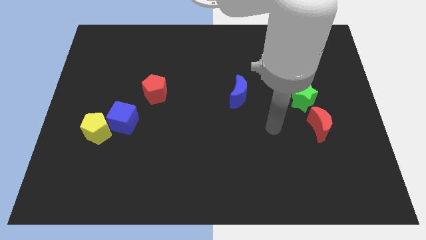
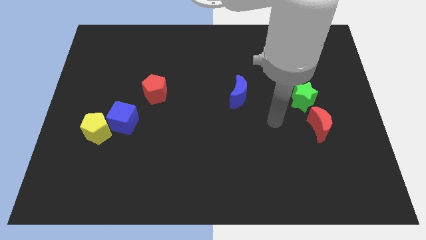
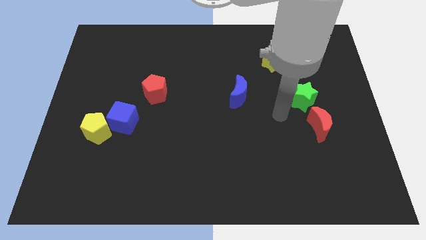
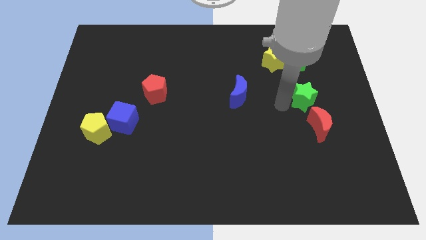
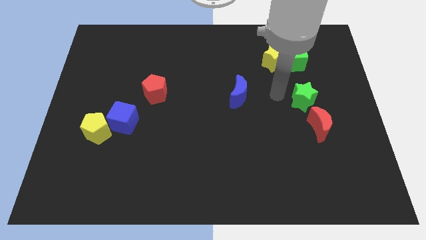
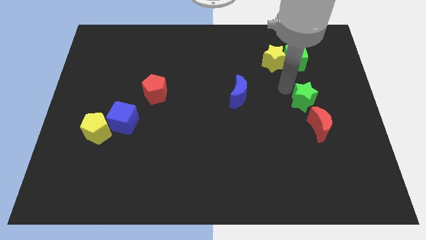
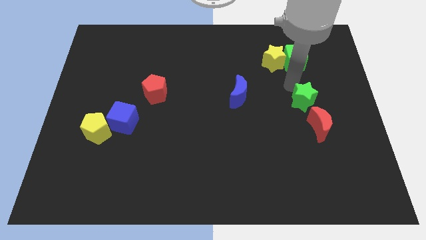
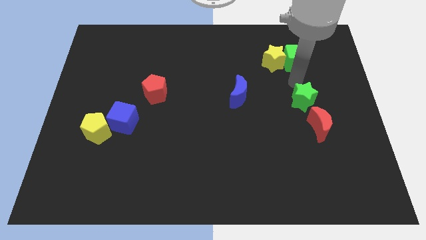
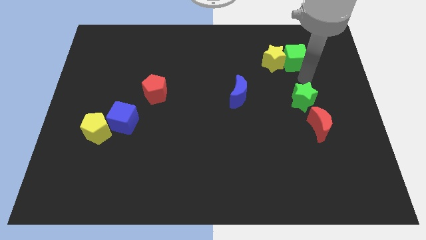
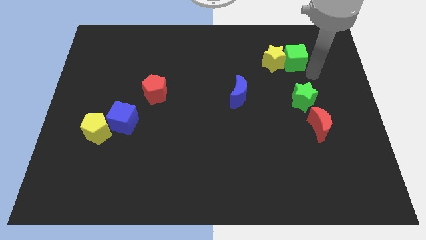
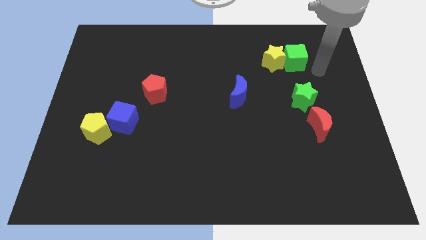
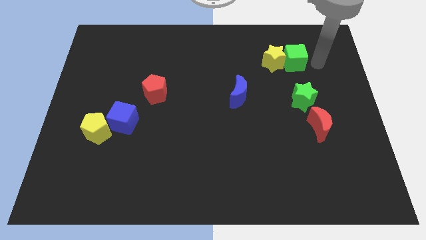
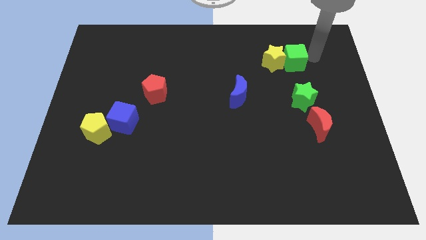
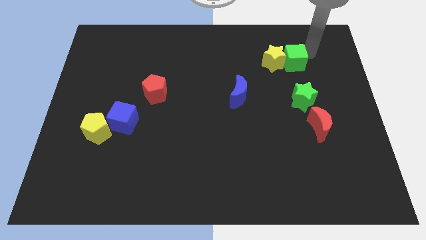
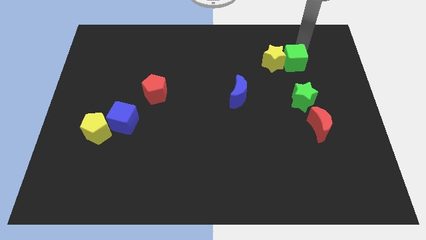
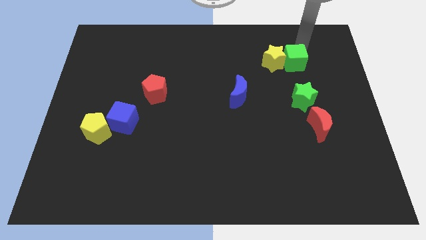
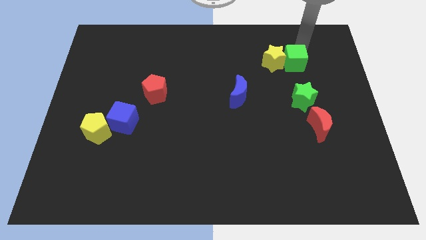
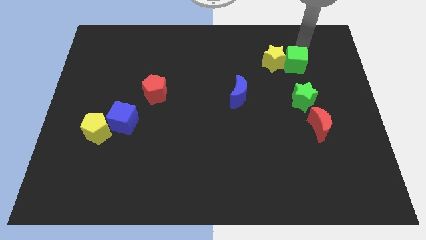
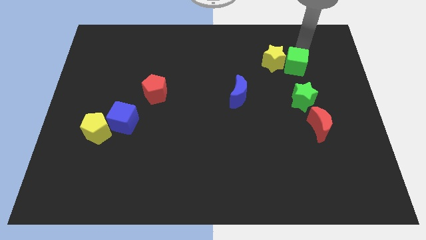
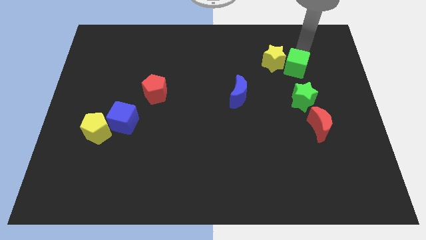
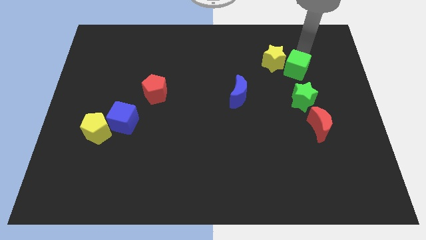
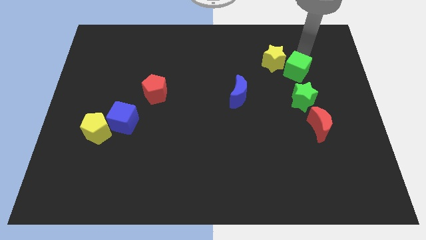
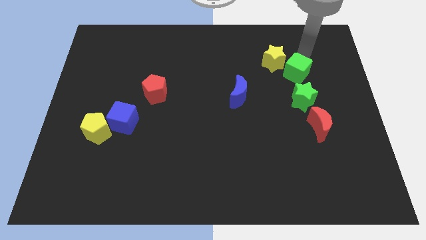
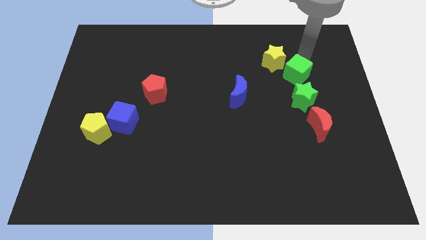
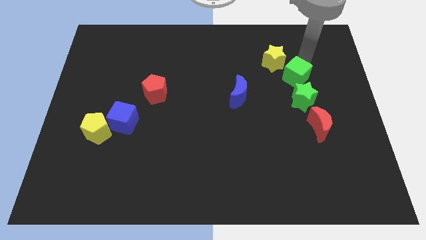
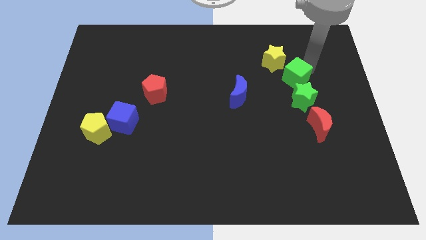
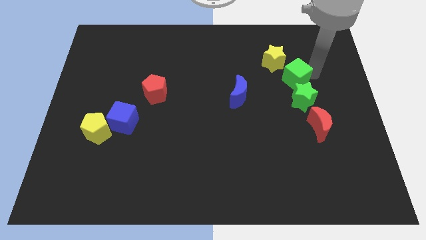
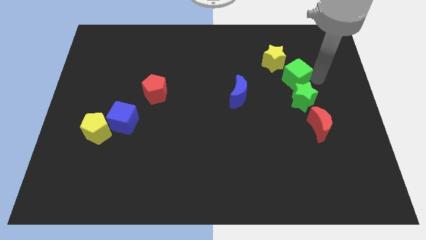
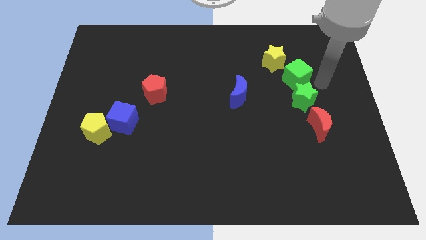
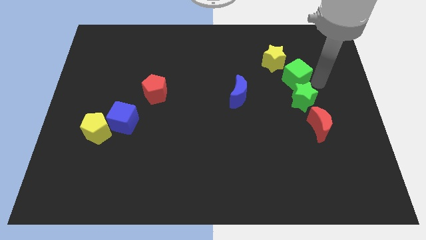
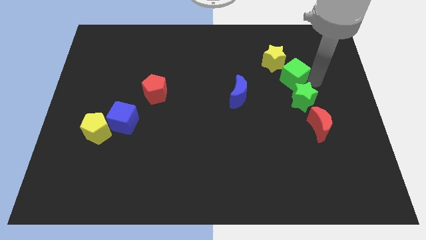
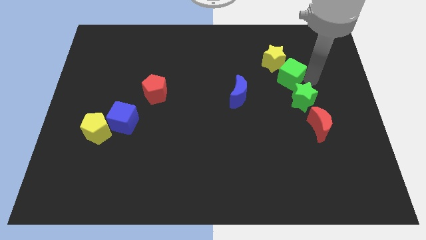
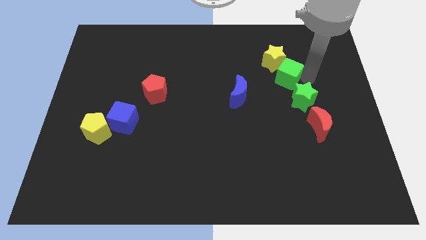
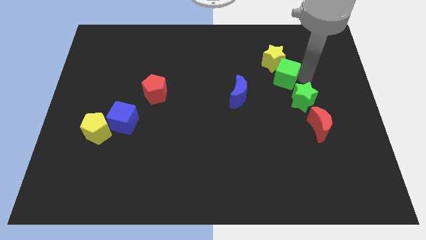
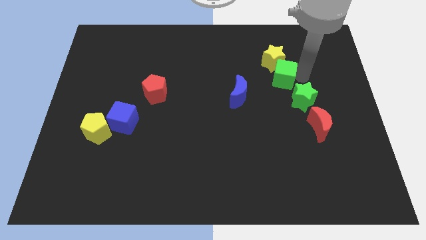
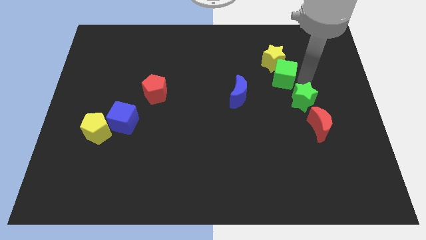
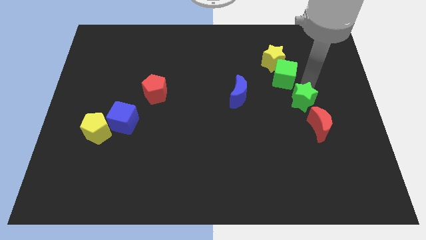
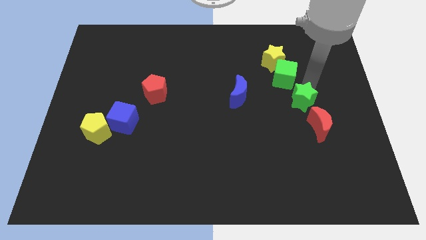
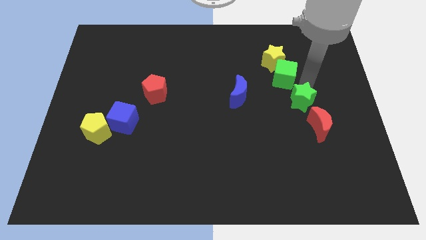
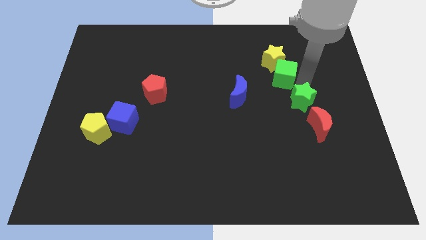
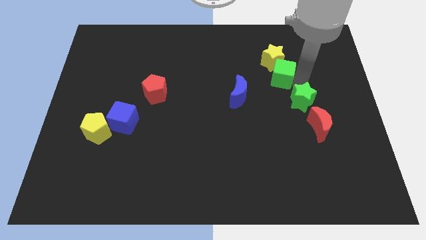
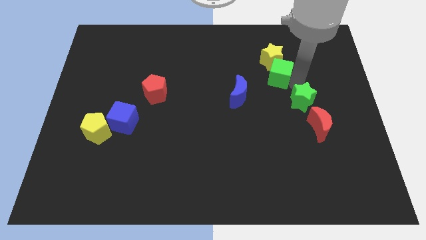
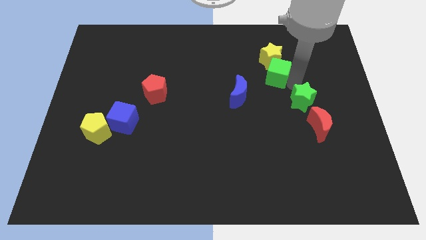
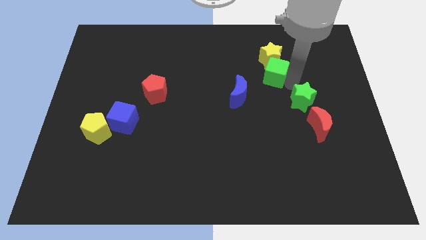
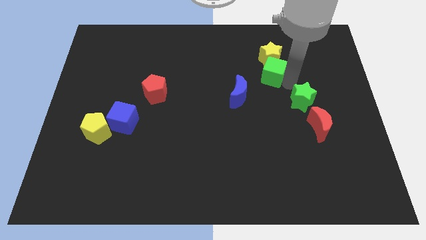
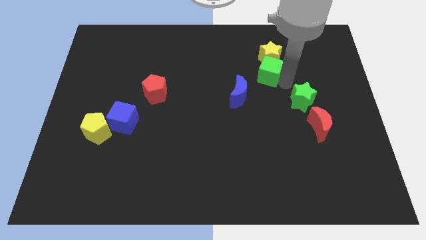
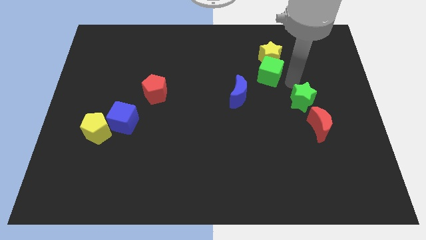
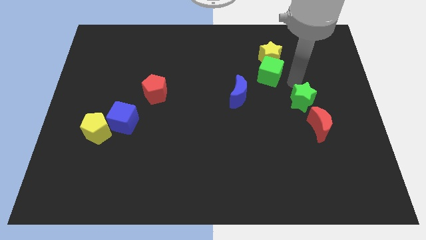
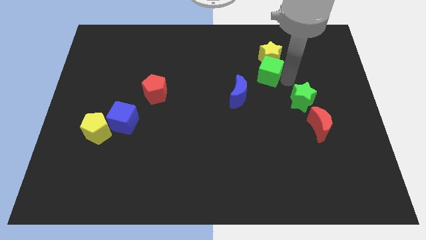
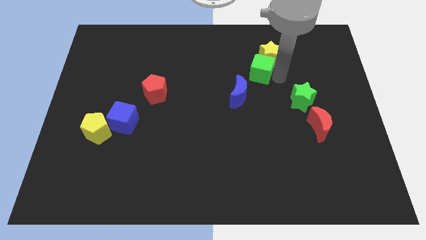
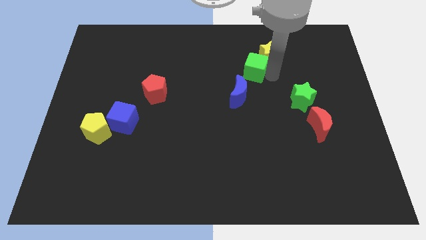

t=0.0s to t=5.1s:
put the green cube above the blue moon

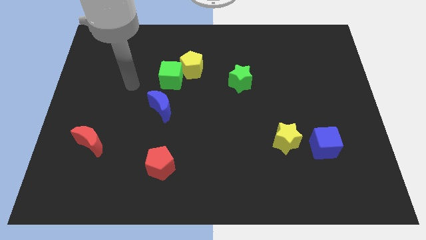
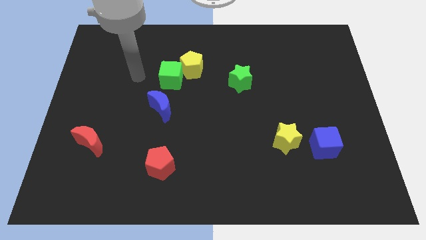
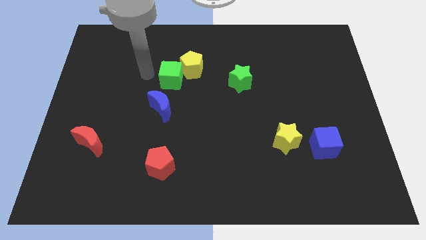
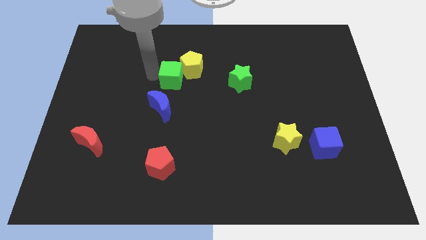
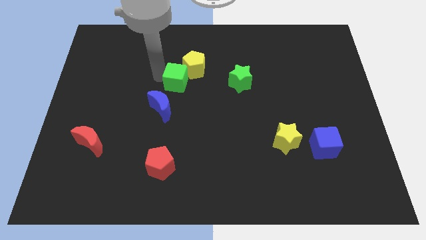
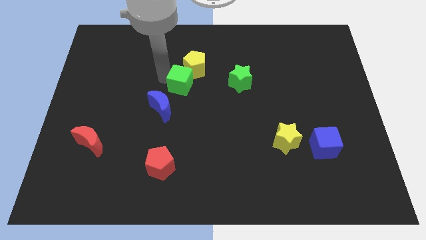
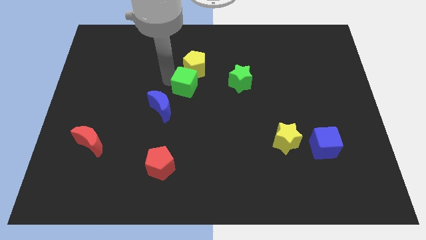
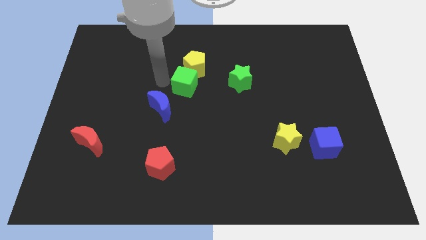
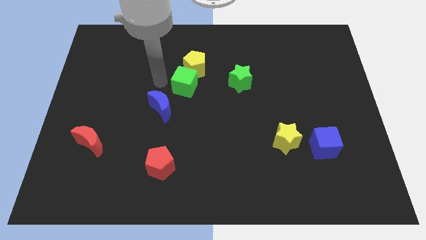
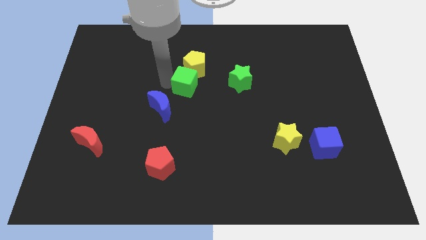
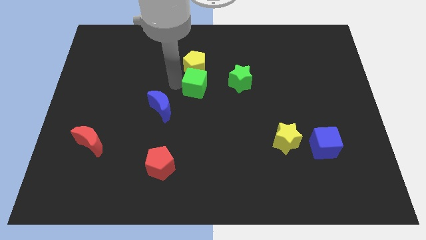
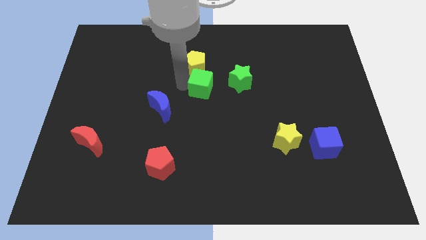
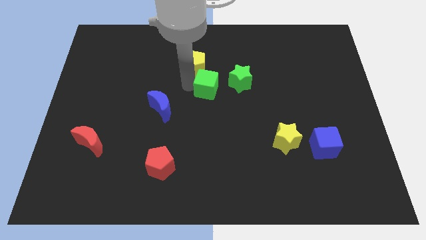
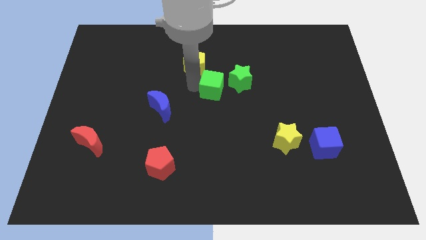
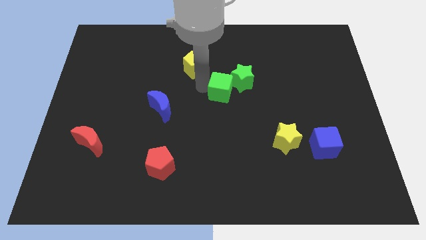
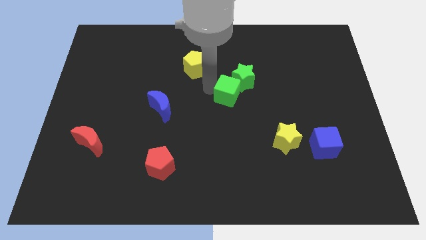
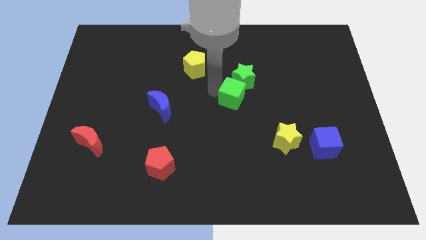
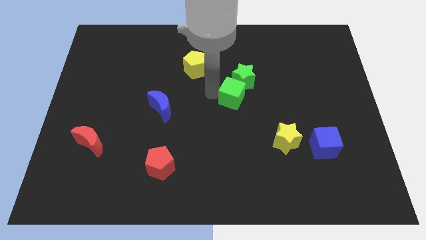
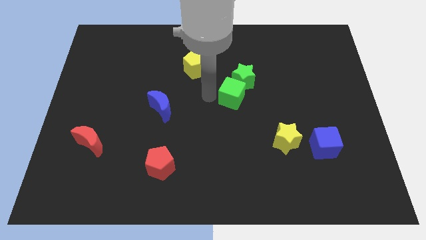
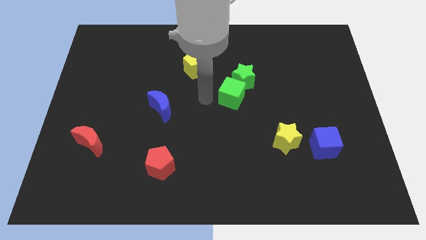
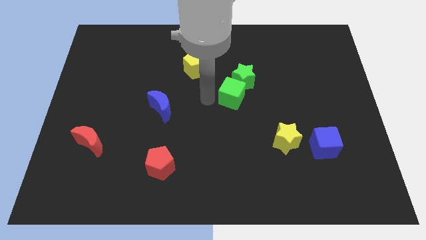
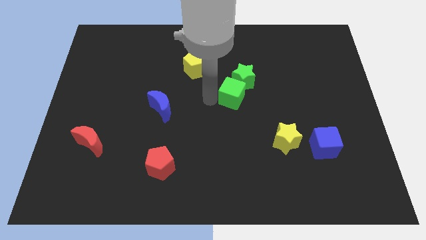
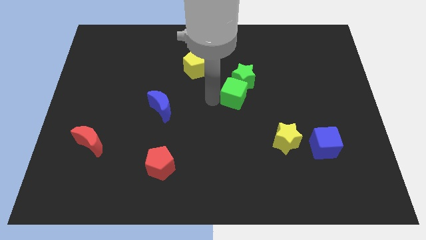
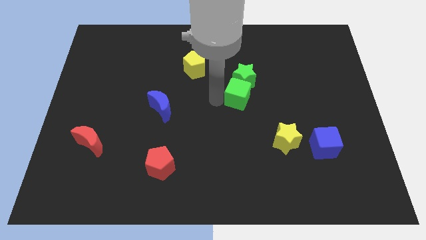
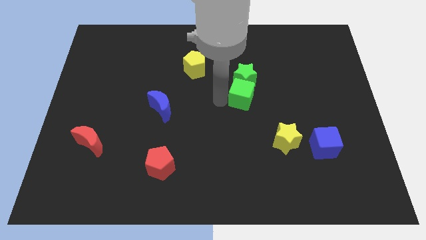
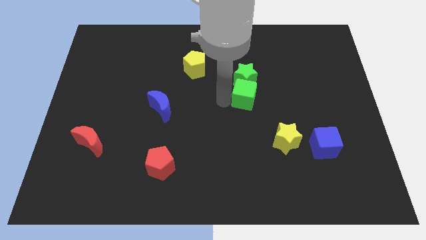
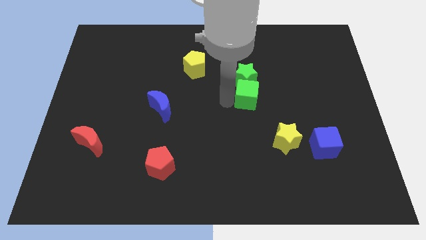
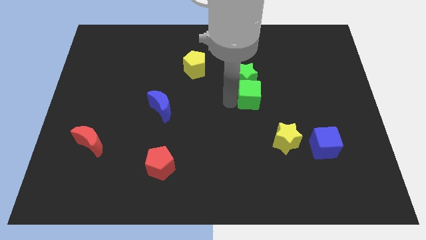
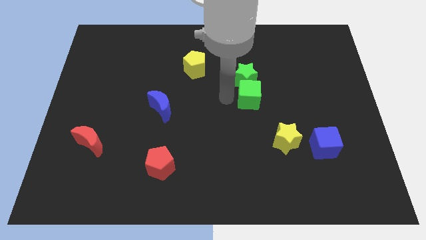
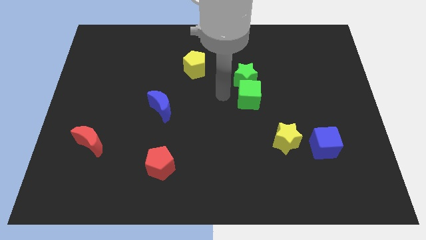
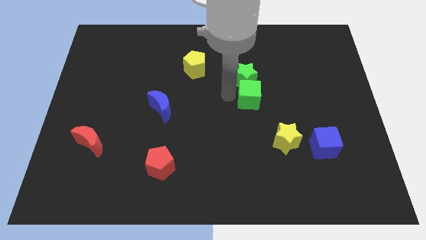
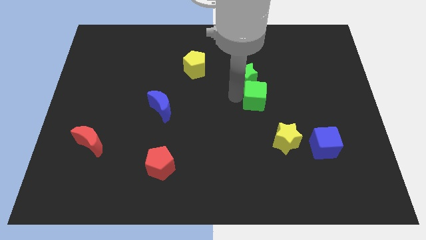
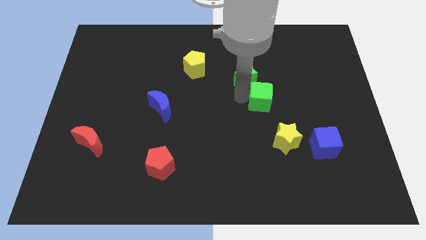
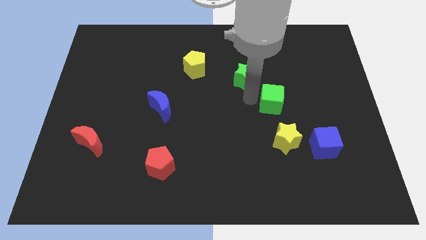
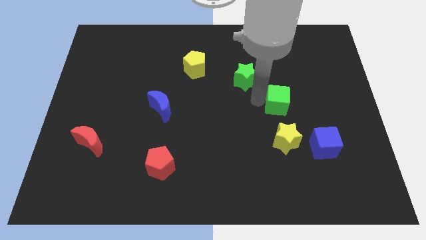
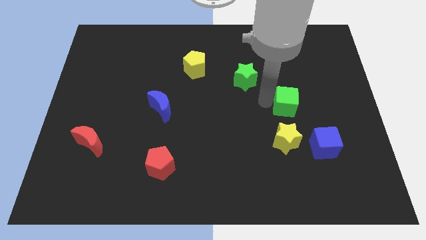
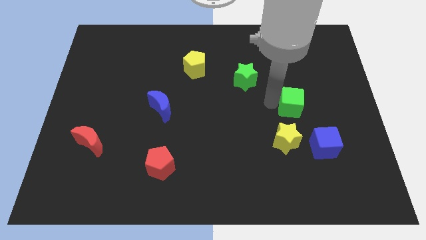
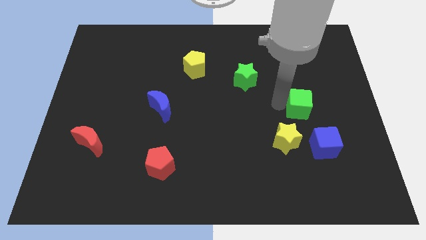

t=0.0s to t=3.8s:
put the green cube to the top of the blue cube
